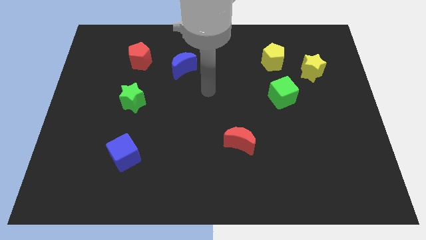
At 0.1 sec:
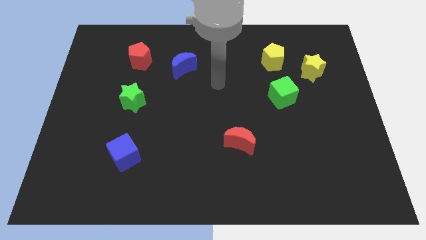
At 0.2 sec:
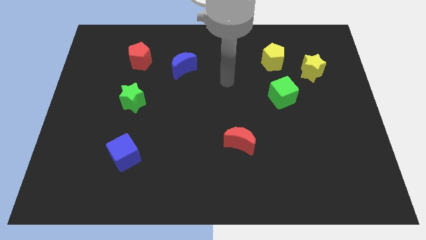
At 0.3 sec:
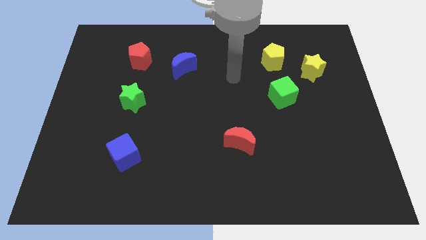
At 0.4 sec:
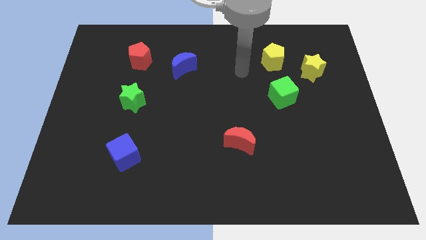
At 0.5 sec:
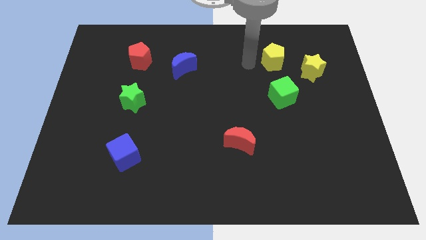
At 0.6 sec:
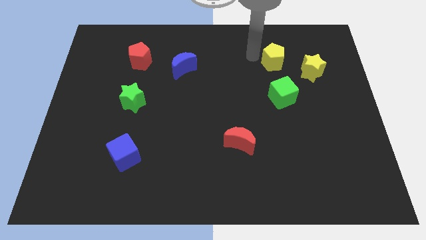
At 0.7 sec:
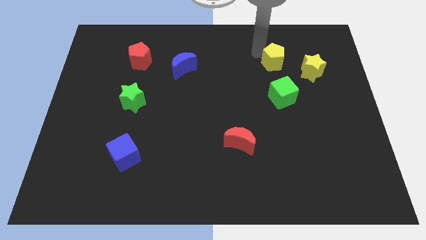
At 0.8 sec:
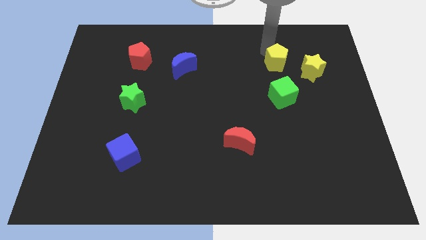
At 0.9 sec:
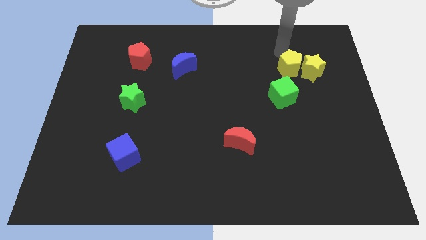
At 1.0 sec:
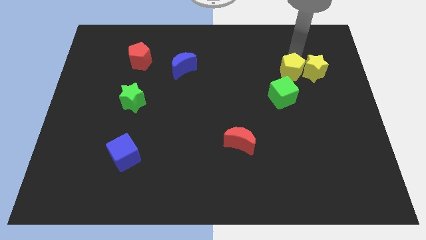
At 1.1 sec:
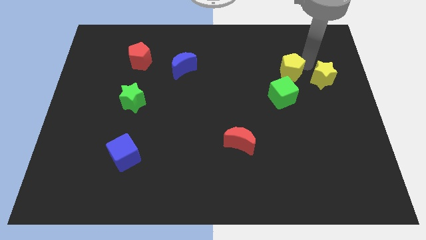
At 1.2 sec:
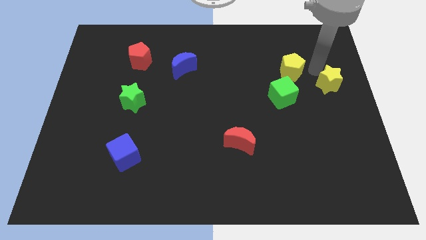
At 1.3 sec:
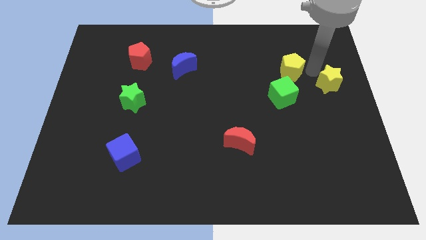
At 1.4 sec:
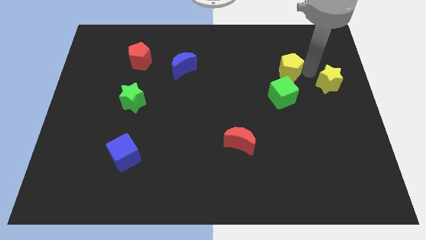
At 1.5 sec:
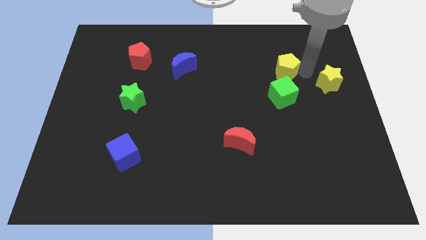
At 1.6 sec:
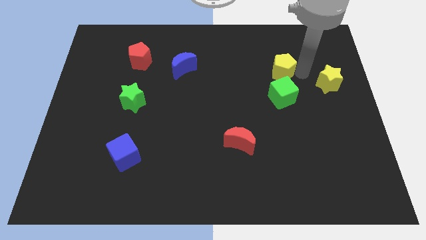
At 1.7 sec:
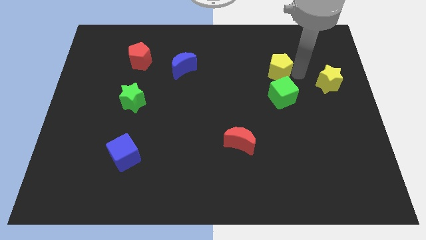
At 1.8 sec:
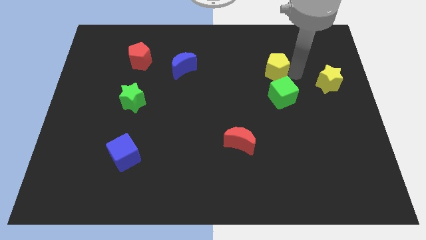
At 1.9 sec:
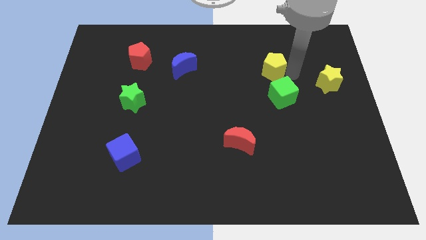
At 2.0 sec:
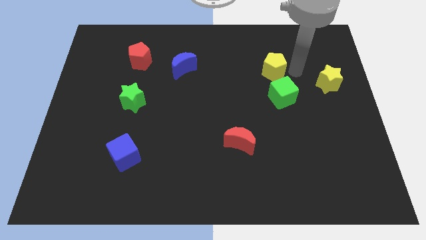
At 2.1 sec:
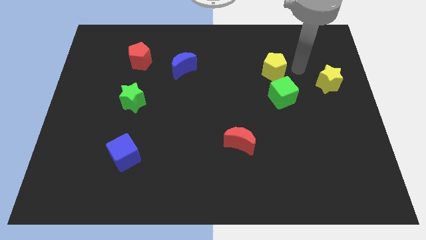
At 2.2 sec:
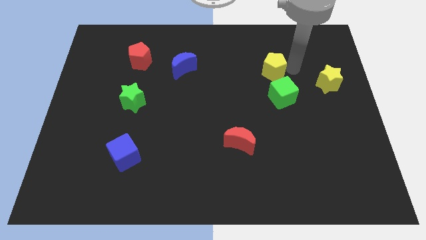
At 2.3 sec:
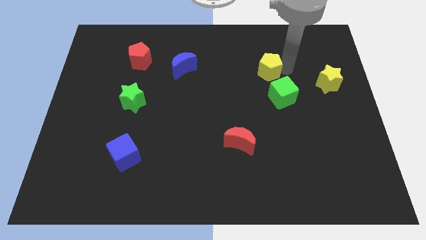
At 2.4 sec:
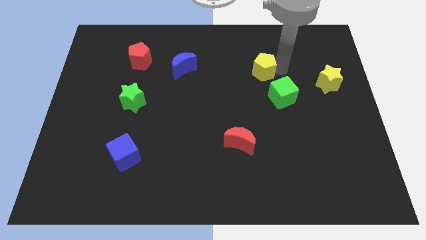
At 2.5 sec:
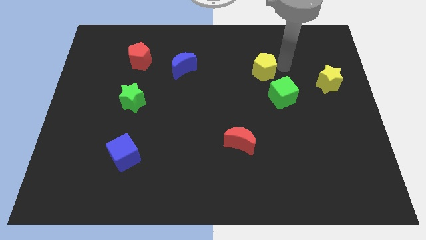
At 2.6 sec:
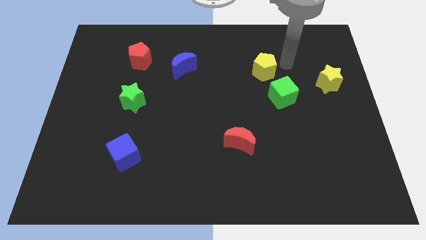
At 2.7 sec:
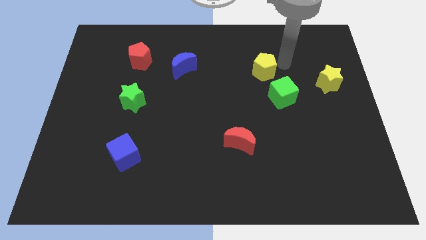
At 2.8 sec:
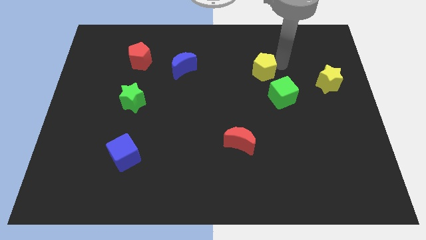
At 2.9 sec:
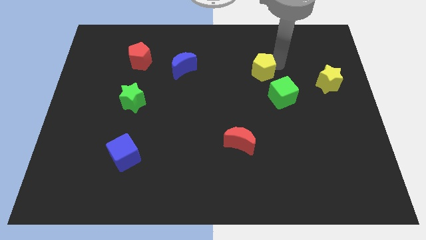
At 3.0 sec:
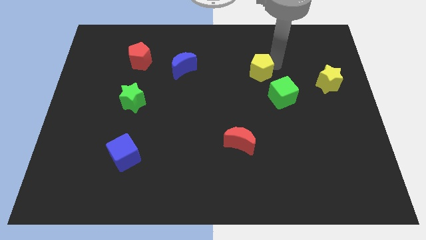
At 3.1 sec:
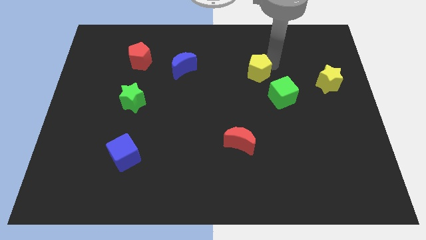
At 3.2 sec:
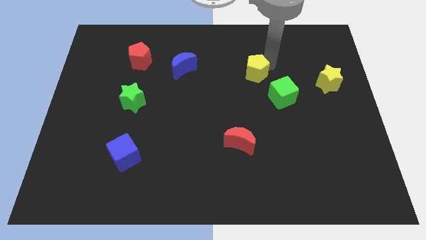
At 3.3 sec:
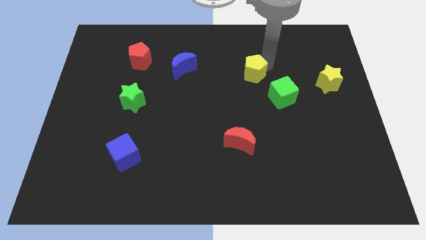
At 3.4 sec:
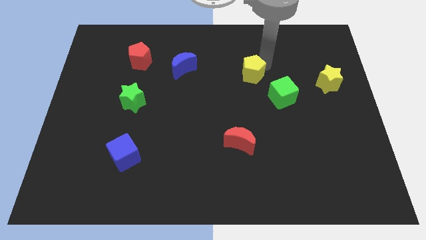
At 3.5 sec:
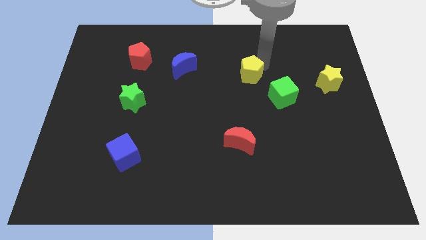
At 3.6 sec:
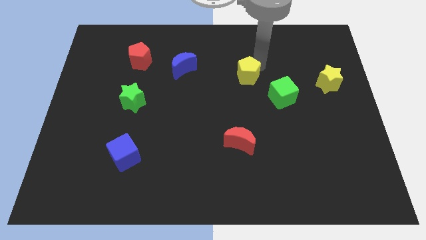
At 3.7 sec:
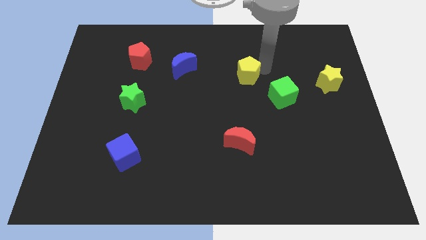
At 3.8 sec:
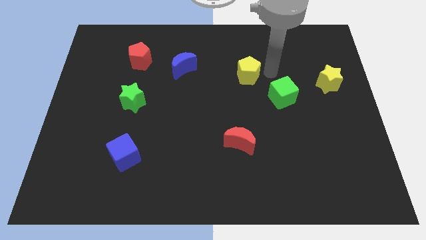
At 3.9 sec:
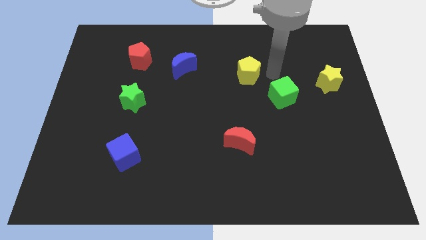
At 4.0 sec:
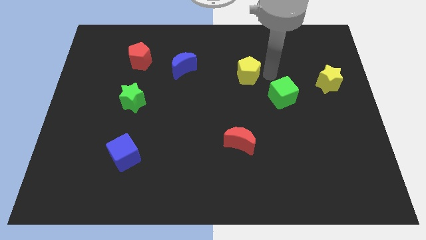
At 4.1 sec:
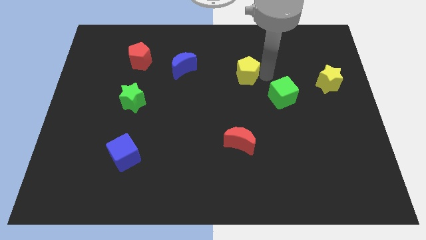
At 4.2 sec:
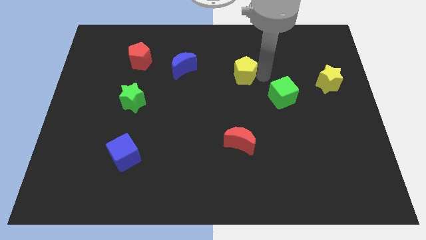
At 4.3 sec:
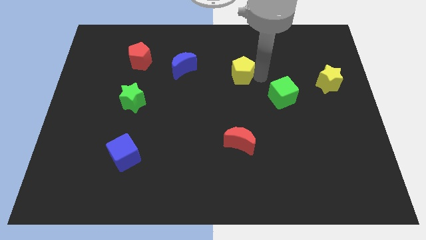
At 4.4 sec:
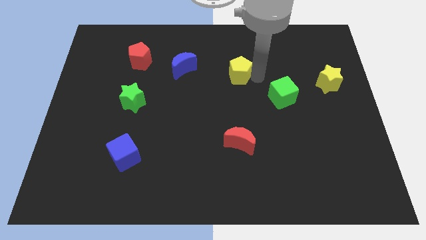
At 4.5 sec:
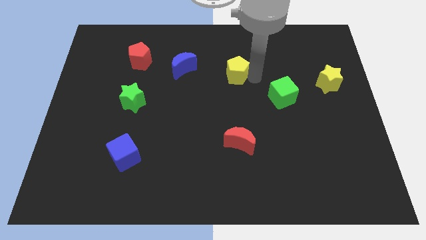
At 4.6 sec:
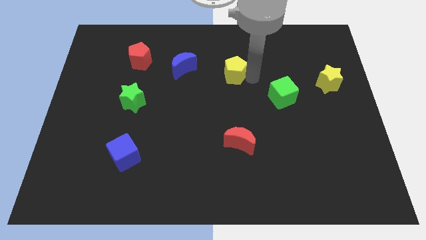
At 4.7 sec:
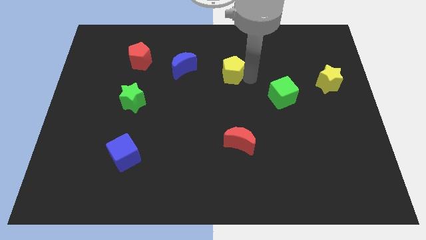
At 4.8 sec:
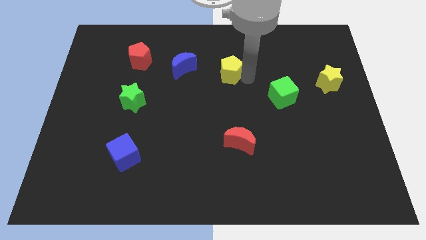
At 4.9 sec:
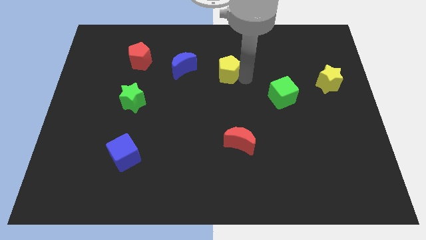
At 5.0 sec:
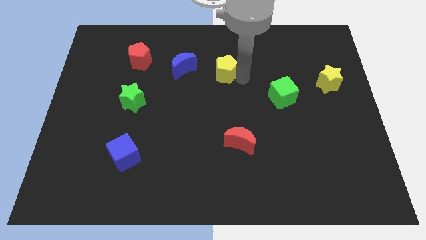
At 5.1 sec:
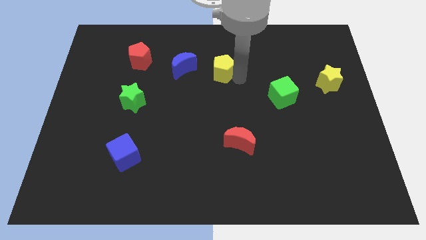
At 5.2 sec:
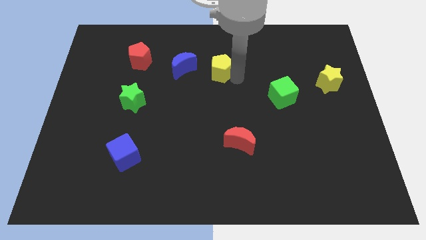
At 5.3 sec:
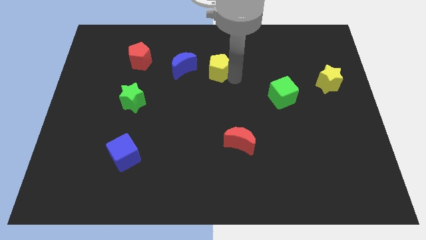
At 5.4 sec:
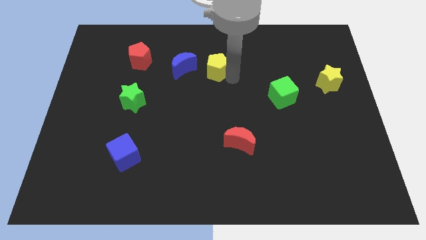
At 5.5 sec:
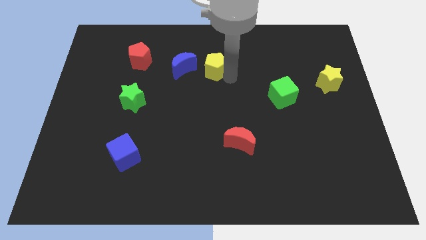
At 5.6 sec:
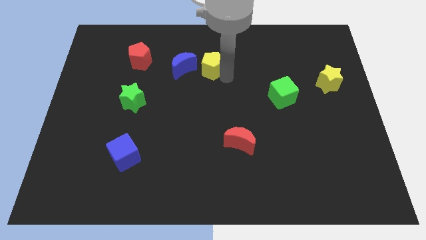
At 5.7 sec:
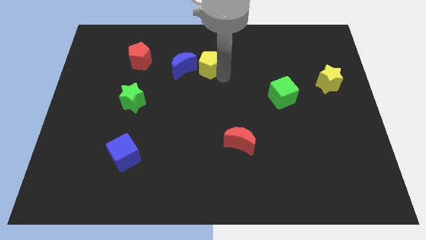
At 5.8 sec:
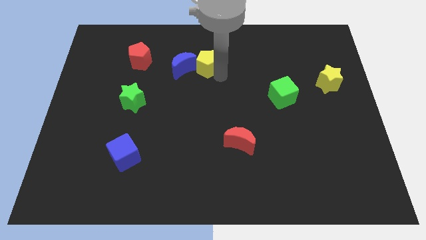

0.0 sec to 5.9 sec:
put the yellow pentagon next to the blue moon

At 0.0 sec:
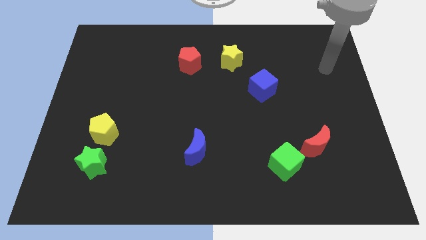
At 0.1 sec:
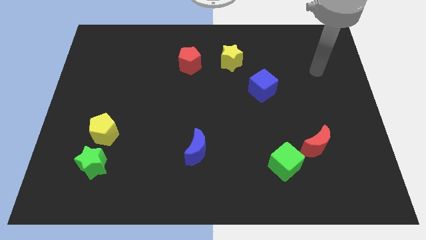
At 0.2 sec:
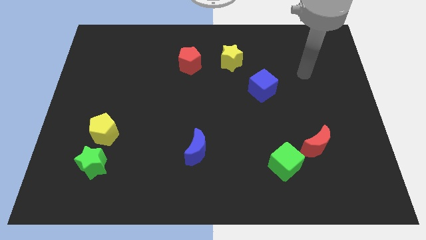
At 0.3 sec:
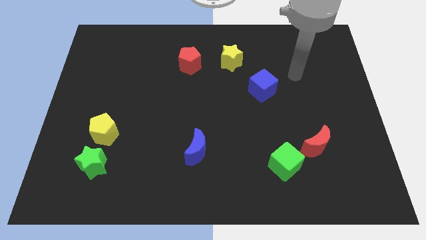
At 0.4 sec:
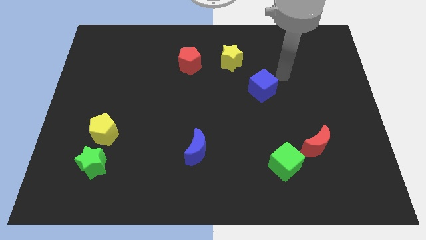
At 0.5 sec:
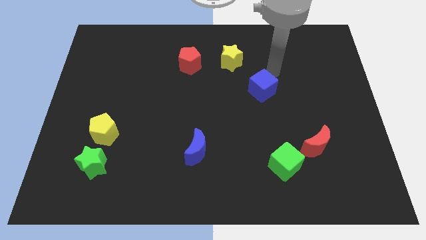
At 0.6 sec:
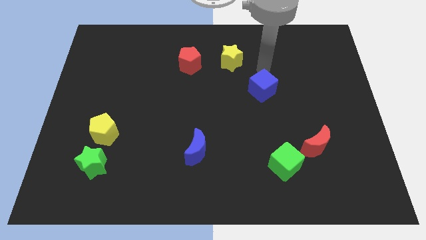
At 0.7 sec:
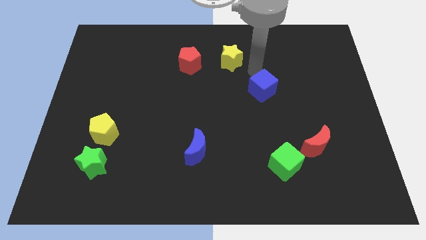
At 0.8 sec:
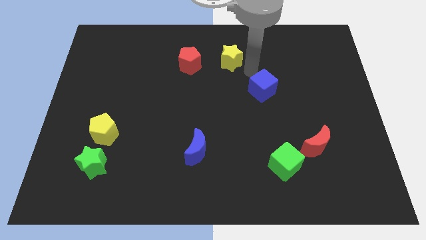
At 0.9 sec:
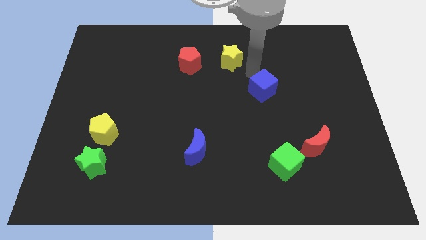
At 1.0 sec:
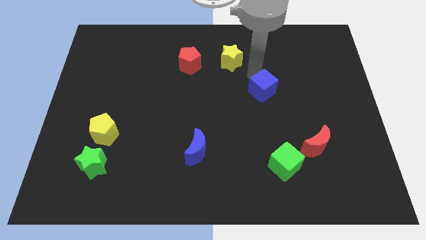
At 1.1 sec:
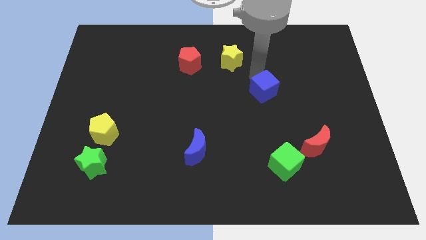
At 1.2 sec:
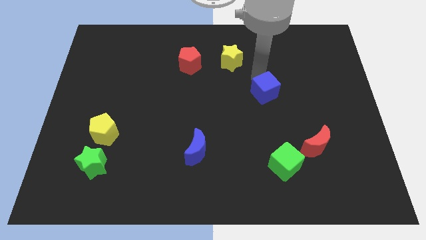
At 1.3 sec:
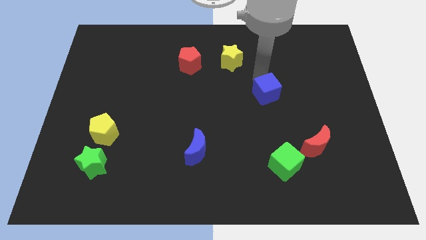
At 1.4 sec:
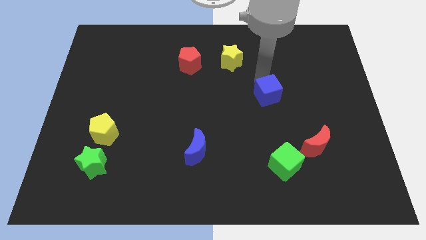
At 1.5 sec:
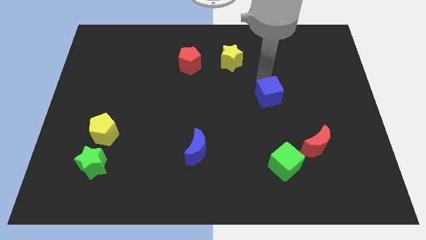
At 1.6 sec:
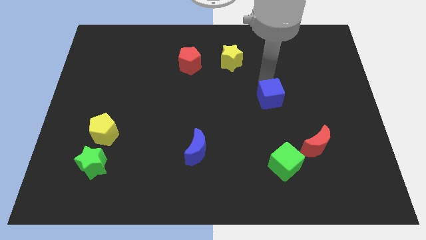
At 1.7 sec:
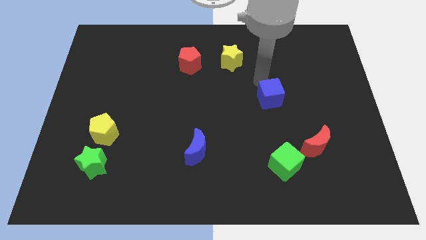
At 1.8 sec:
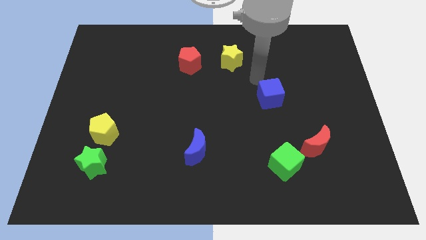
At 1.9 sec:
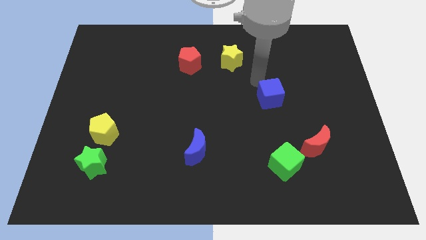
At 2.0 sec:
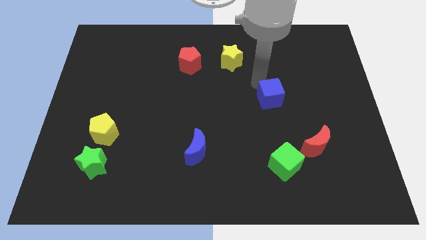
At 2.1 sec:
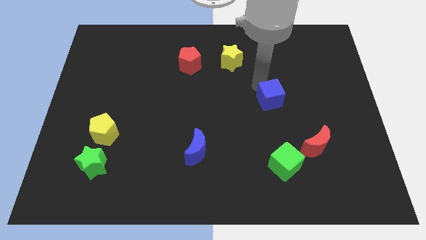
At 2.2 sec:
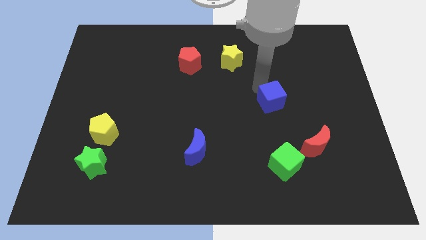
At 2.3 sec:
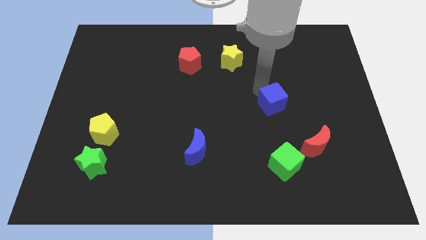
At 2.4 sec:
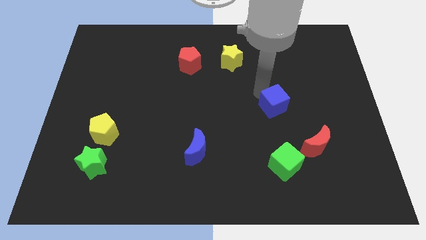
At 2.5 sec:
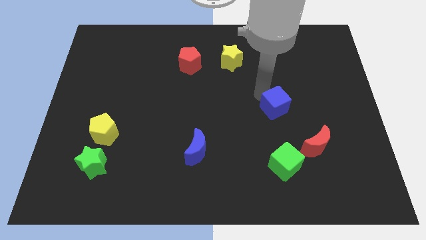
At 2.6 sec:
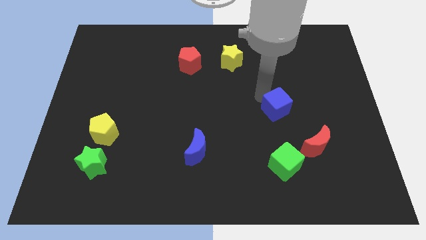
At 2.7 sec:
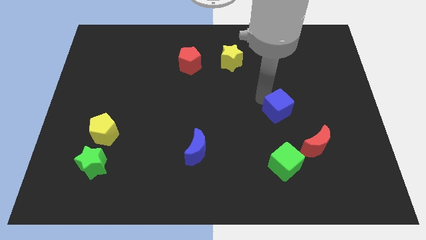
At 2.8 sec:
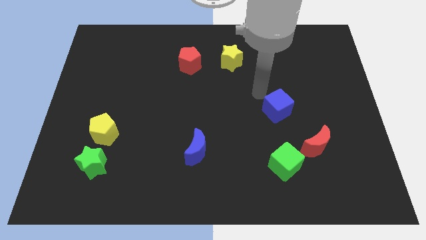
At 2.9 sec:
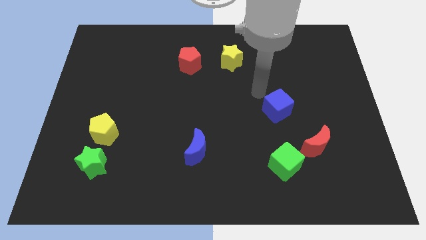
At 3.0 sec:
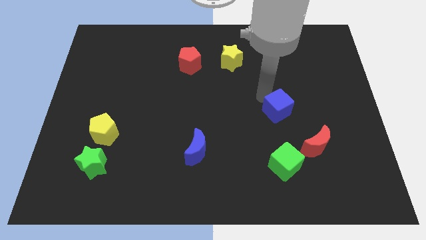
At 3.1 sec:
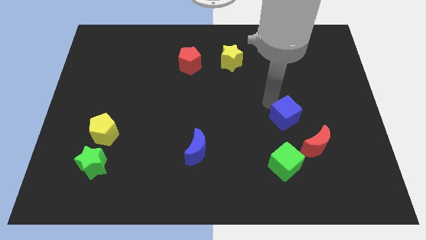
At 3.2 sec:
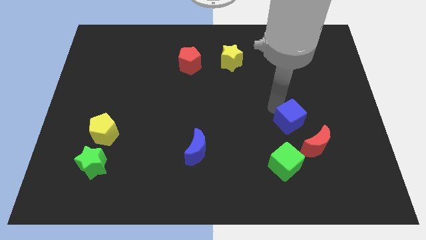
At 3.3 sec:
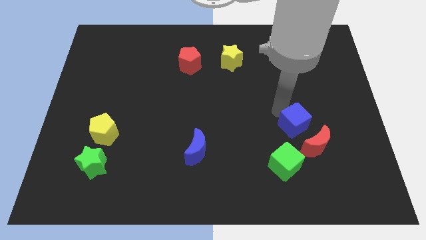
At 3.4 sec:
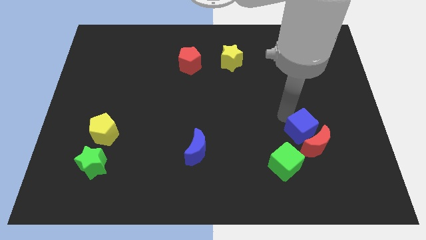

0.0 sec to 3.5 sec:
push the blue cube next to the red moon
